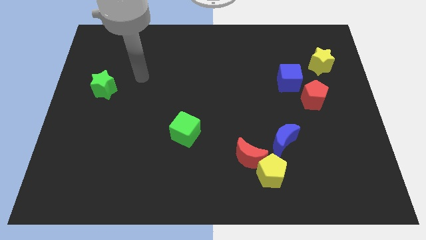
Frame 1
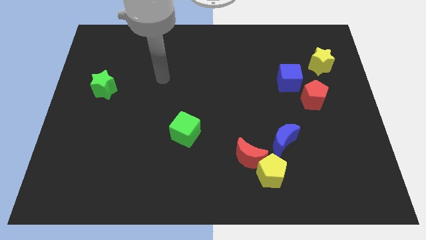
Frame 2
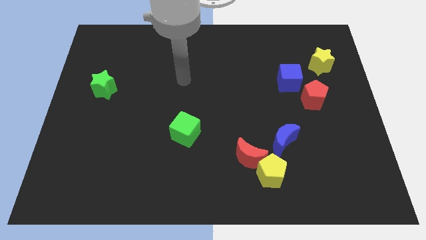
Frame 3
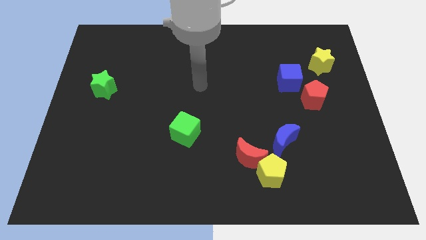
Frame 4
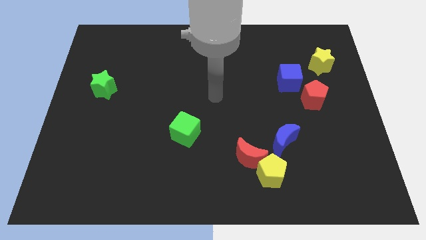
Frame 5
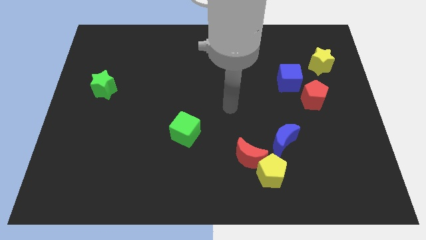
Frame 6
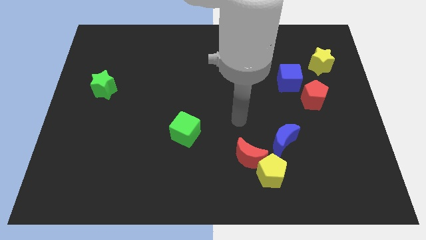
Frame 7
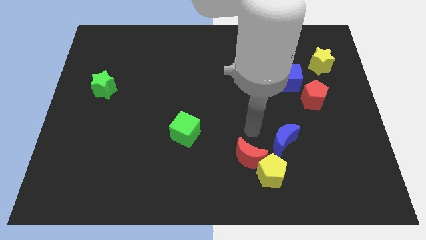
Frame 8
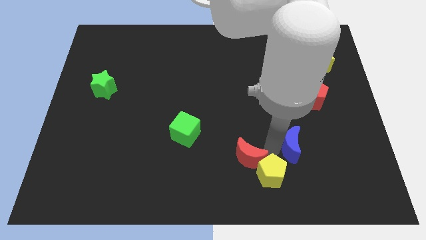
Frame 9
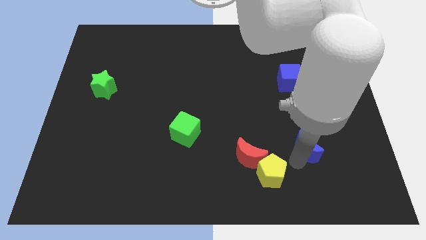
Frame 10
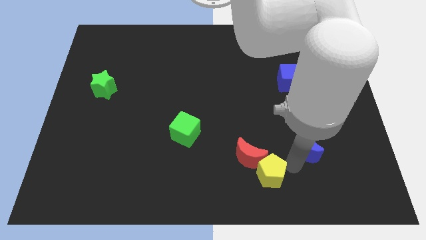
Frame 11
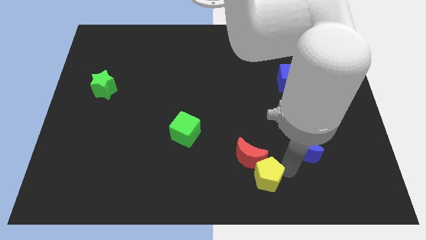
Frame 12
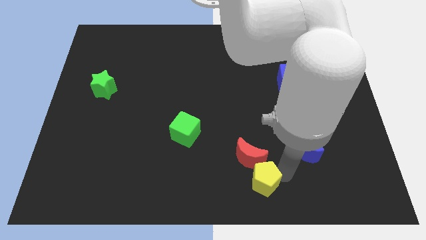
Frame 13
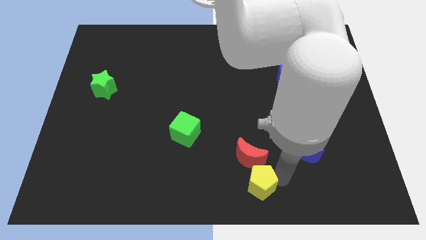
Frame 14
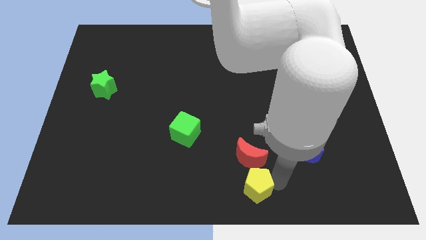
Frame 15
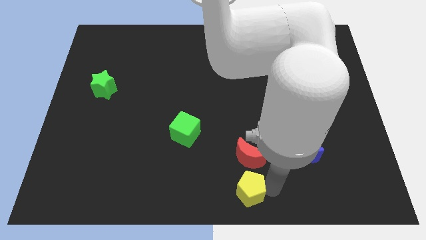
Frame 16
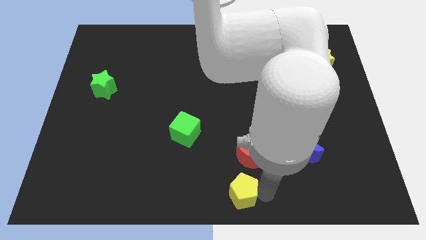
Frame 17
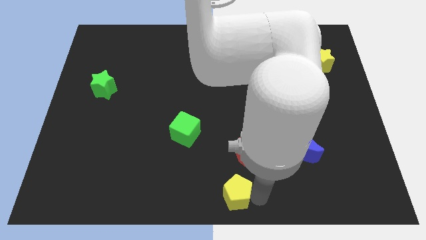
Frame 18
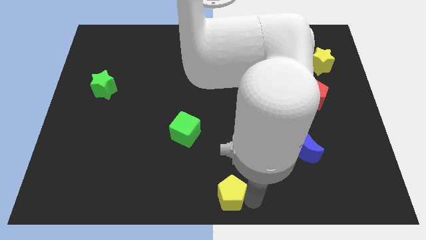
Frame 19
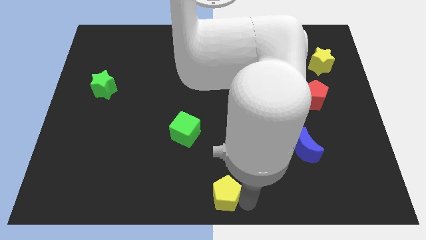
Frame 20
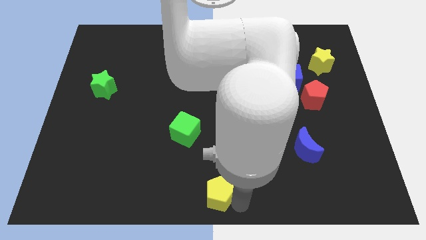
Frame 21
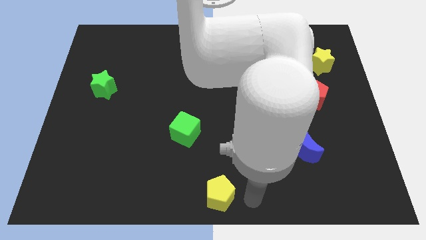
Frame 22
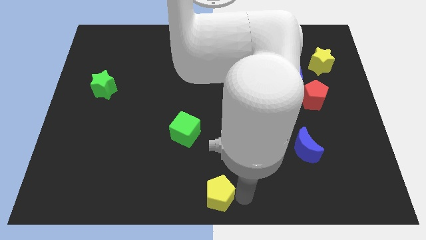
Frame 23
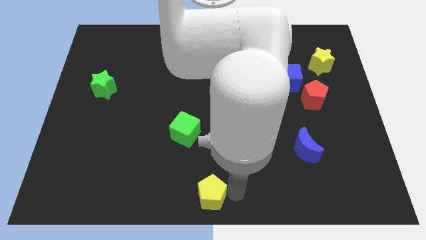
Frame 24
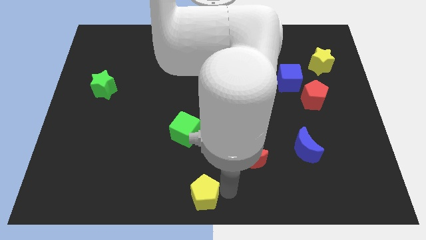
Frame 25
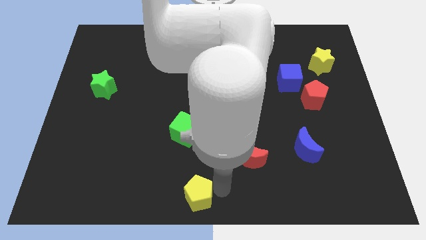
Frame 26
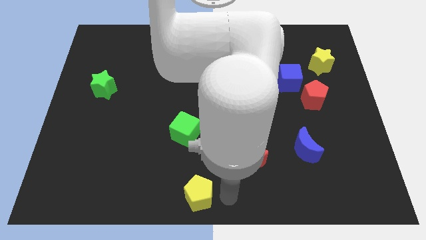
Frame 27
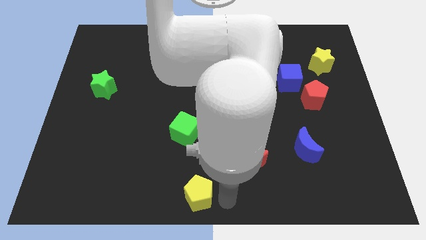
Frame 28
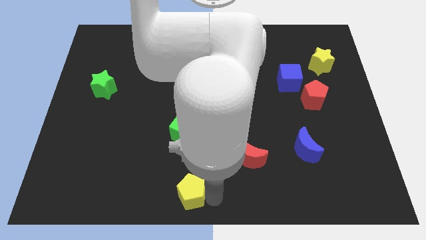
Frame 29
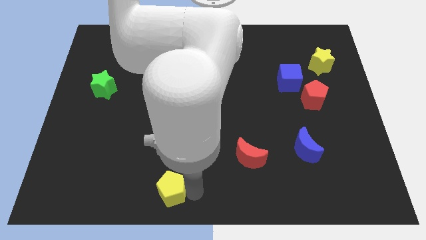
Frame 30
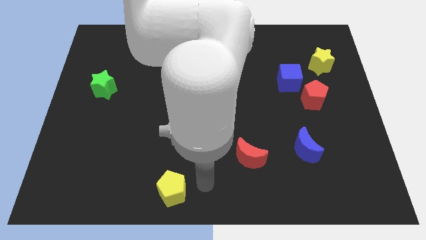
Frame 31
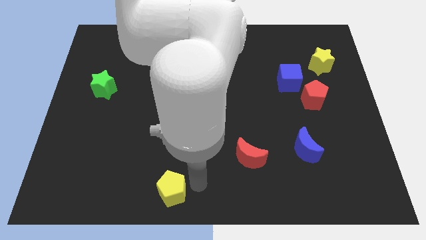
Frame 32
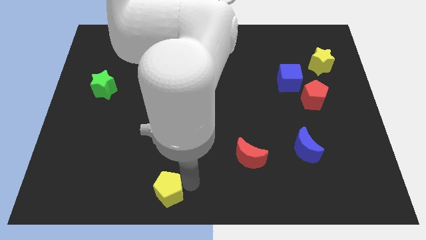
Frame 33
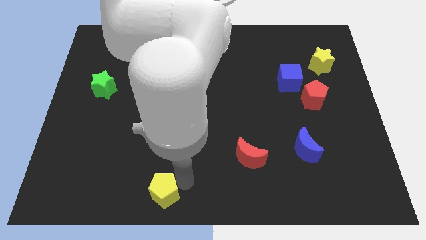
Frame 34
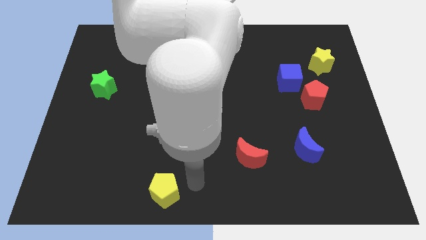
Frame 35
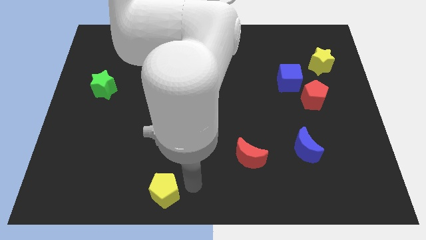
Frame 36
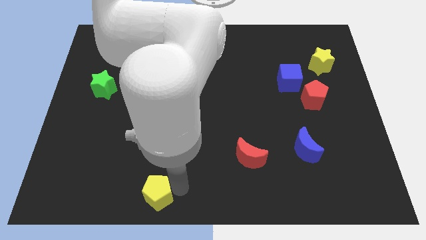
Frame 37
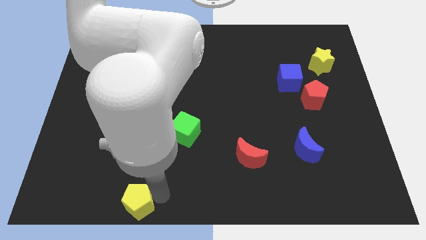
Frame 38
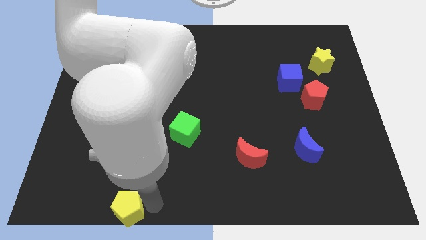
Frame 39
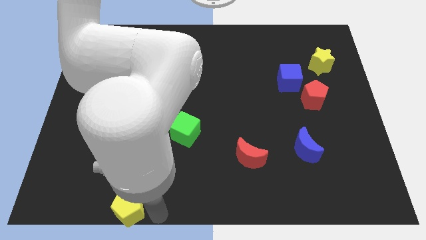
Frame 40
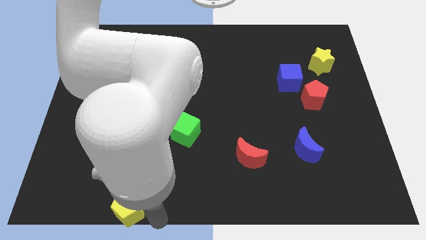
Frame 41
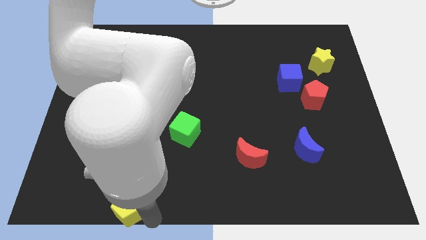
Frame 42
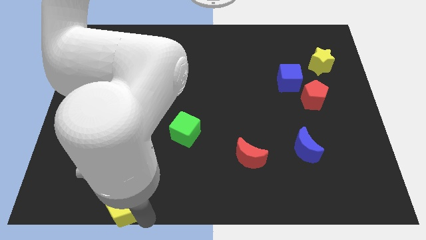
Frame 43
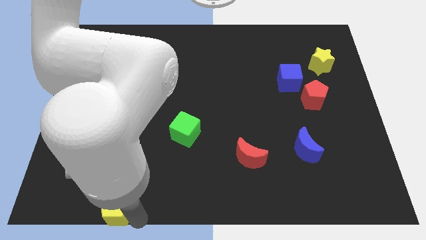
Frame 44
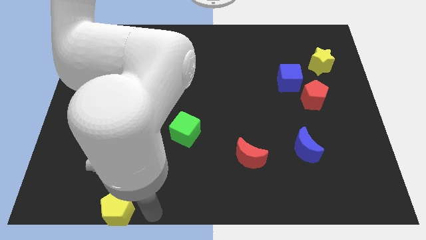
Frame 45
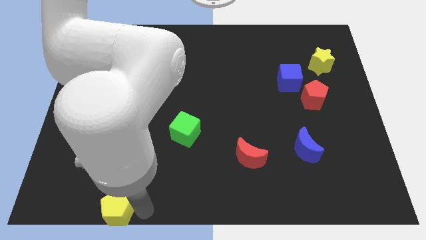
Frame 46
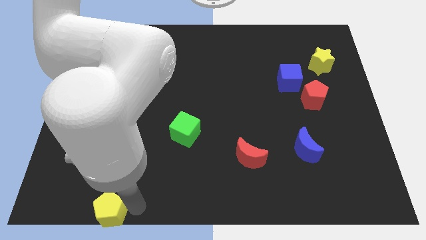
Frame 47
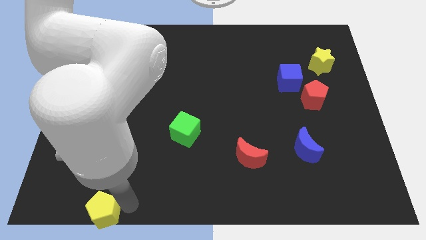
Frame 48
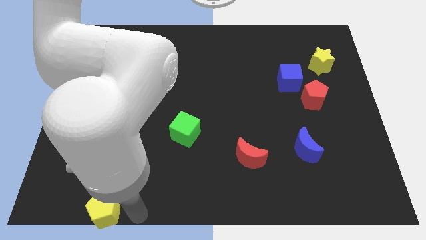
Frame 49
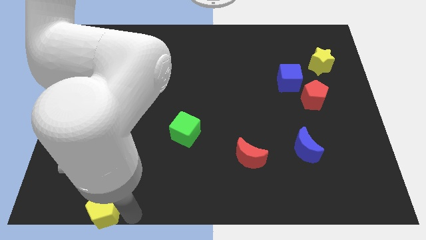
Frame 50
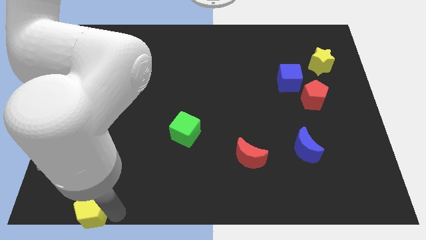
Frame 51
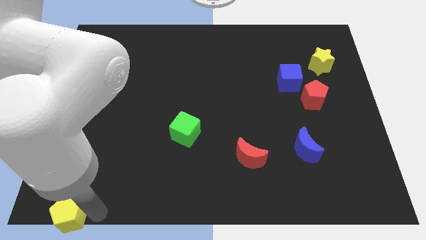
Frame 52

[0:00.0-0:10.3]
put the yellow pentagon to the lower left corner
